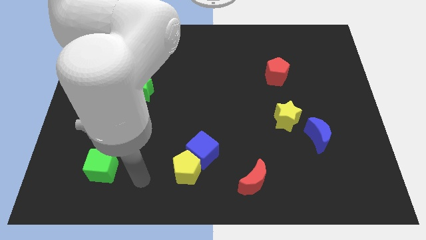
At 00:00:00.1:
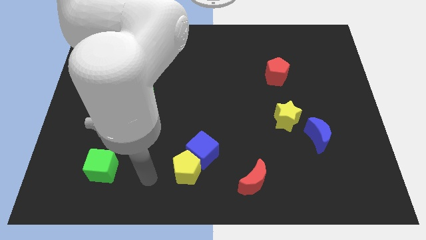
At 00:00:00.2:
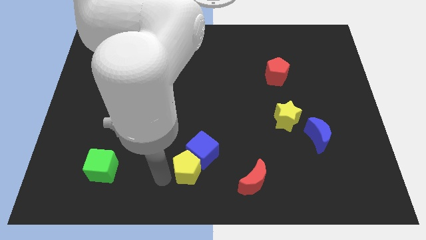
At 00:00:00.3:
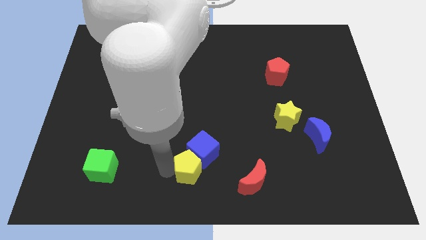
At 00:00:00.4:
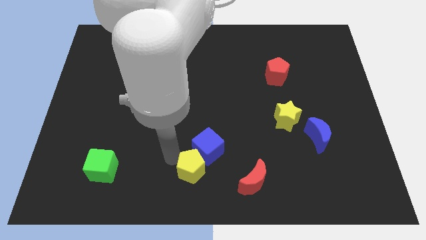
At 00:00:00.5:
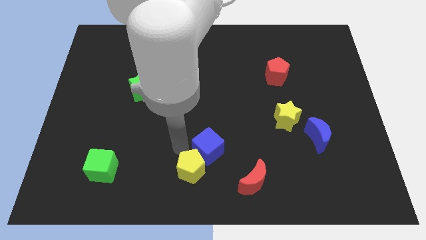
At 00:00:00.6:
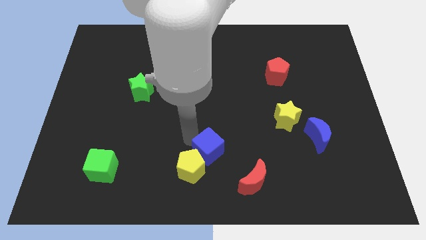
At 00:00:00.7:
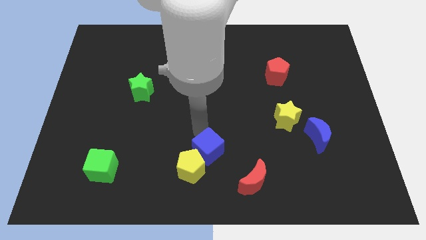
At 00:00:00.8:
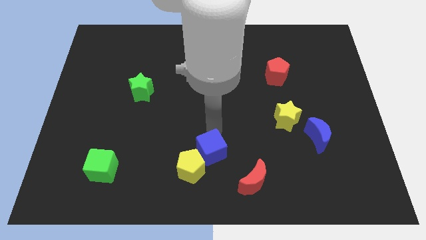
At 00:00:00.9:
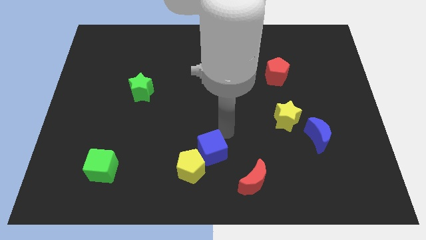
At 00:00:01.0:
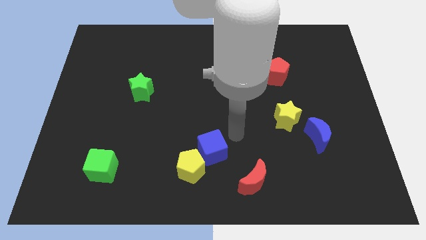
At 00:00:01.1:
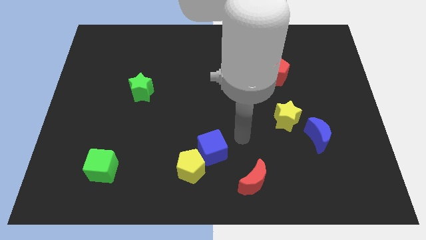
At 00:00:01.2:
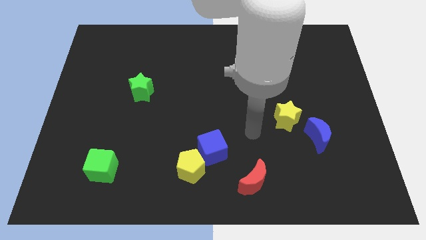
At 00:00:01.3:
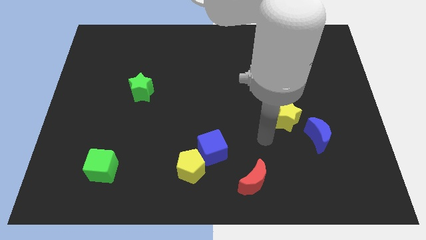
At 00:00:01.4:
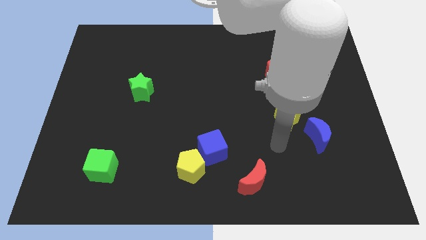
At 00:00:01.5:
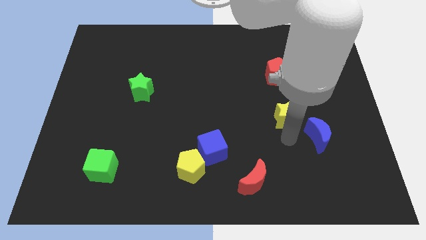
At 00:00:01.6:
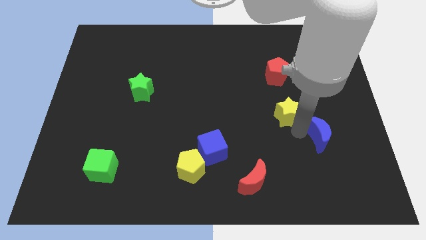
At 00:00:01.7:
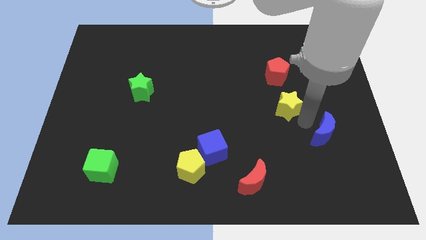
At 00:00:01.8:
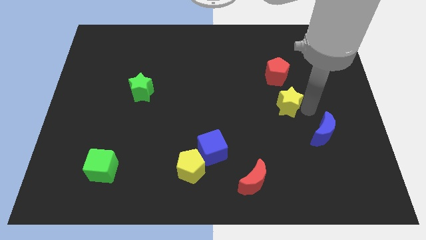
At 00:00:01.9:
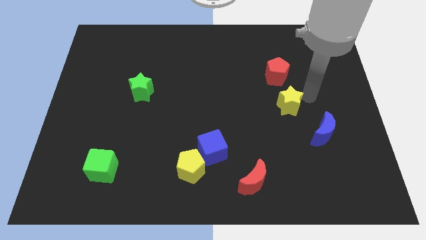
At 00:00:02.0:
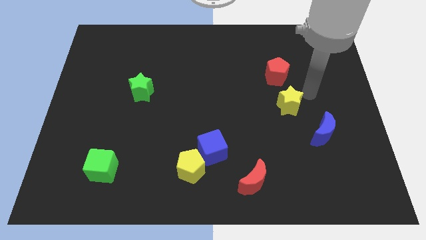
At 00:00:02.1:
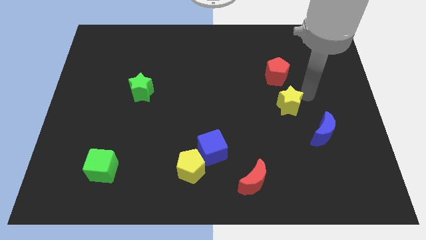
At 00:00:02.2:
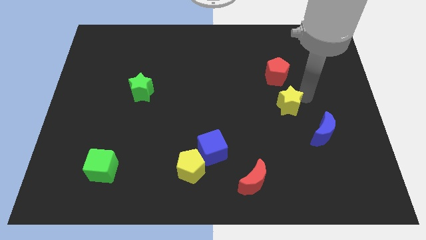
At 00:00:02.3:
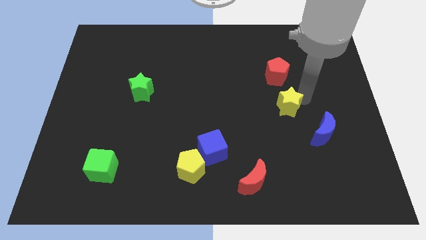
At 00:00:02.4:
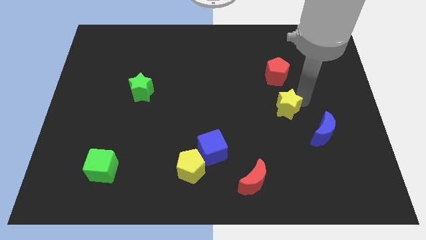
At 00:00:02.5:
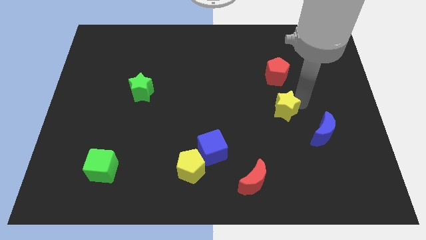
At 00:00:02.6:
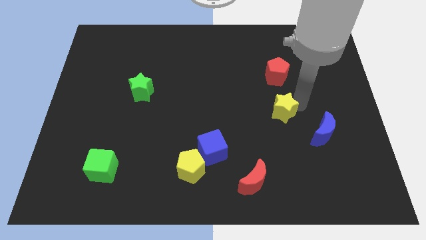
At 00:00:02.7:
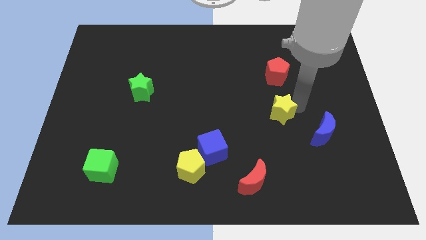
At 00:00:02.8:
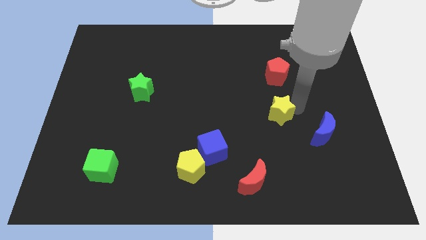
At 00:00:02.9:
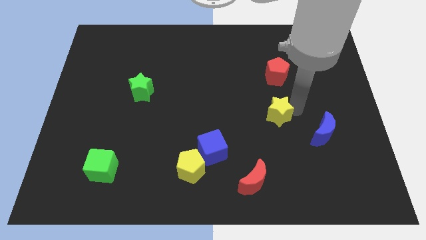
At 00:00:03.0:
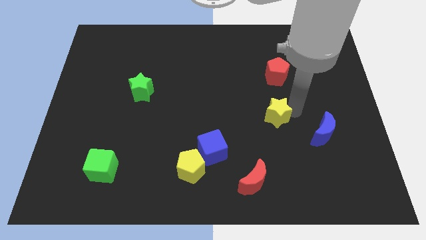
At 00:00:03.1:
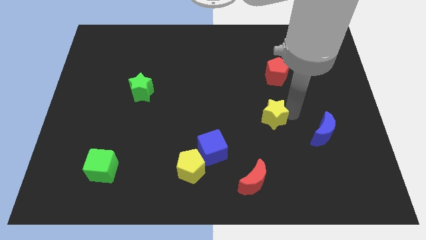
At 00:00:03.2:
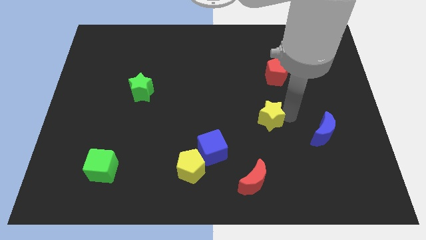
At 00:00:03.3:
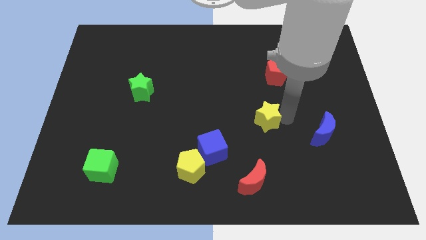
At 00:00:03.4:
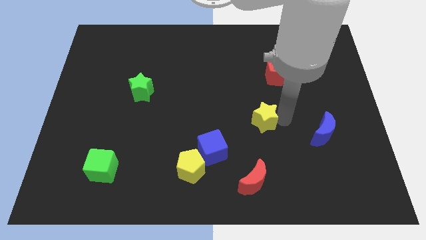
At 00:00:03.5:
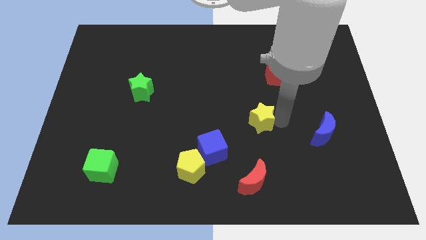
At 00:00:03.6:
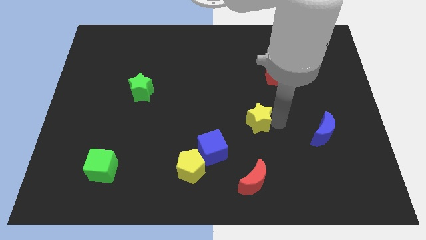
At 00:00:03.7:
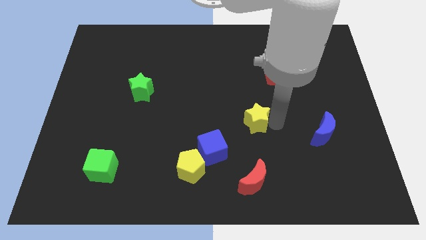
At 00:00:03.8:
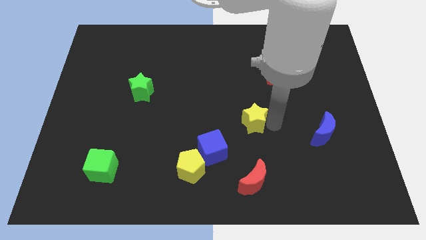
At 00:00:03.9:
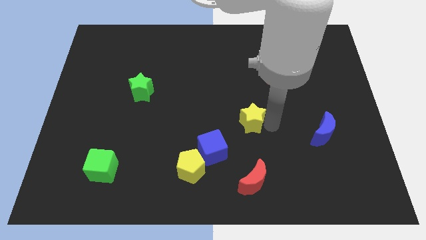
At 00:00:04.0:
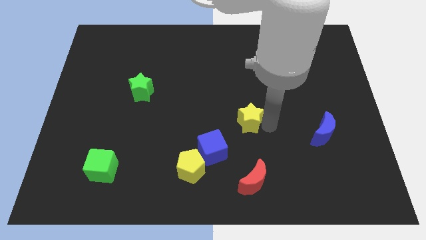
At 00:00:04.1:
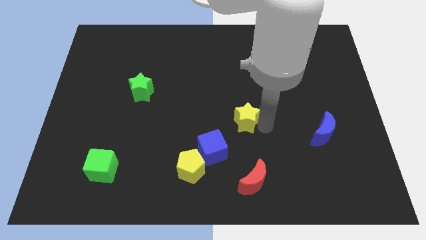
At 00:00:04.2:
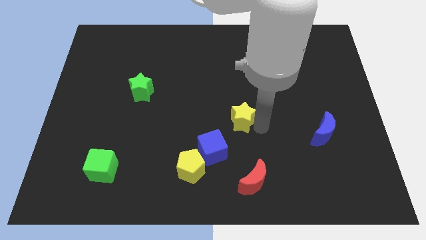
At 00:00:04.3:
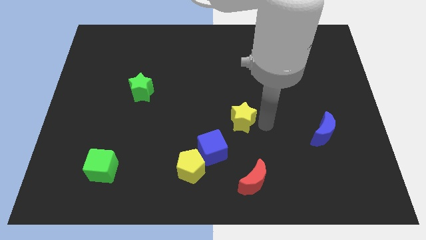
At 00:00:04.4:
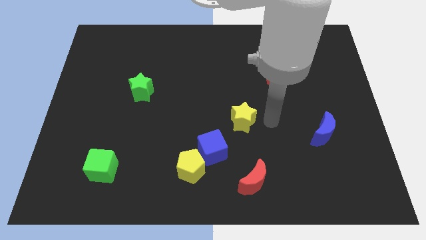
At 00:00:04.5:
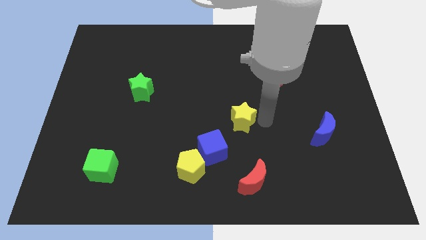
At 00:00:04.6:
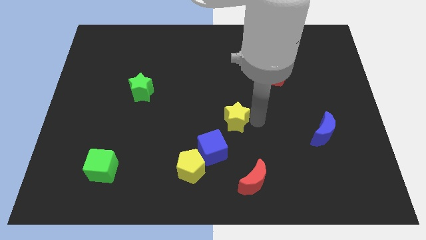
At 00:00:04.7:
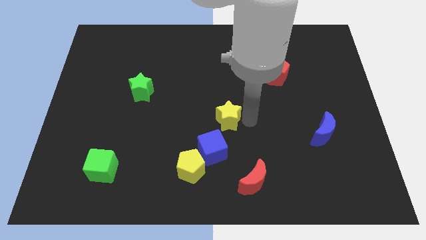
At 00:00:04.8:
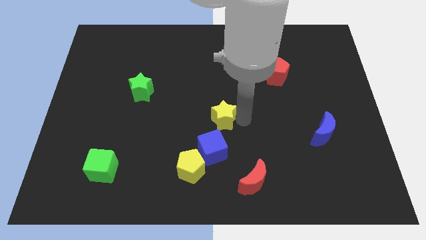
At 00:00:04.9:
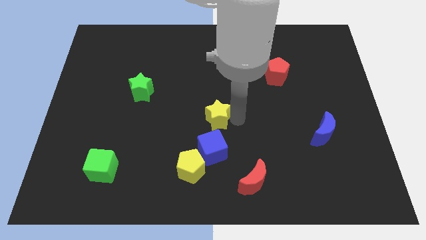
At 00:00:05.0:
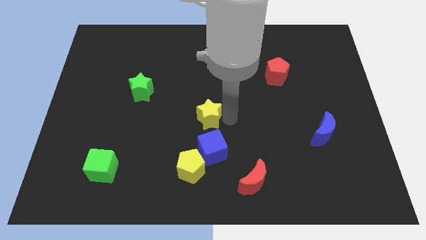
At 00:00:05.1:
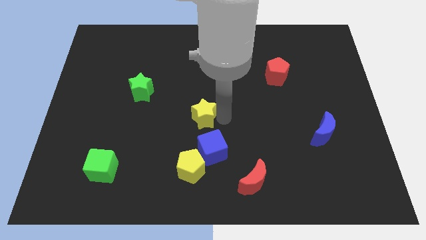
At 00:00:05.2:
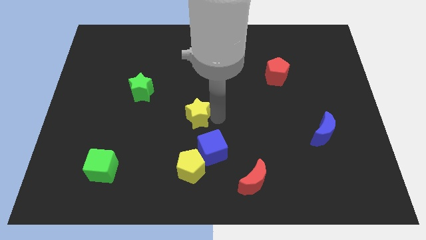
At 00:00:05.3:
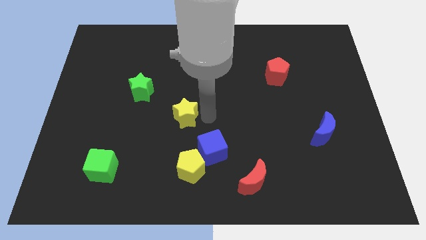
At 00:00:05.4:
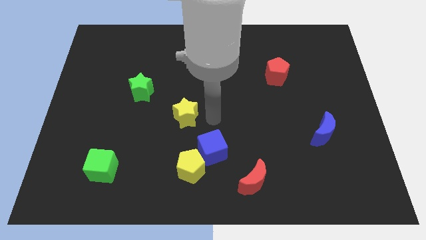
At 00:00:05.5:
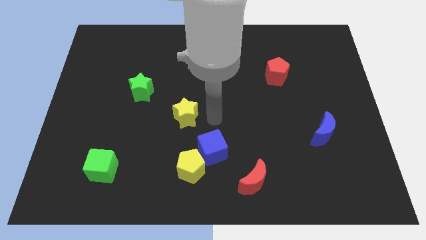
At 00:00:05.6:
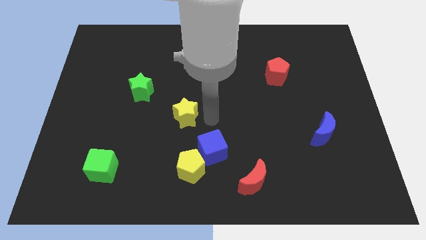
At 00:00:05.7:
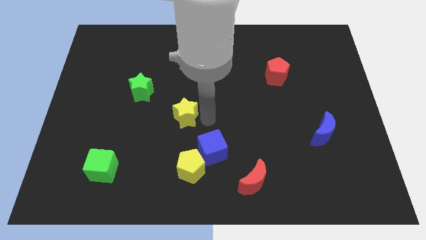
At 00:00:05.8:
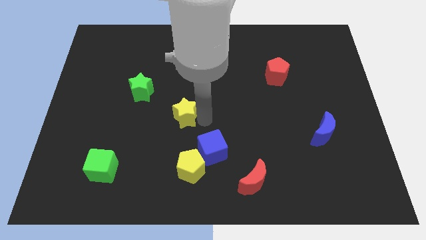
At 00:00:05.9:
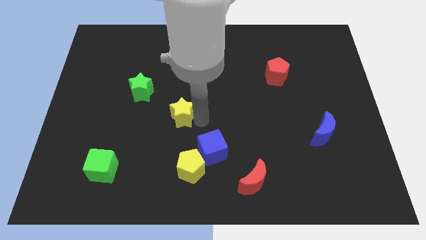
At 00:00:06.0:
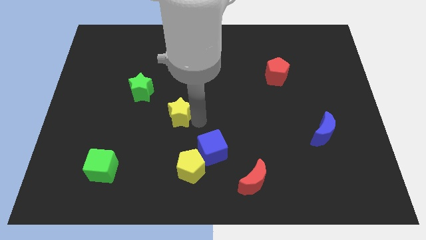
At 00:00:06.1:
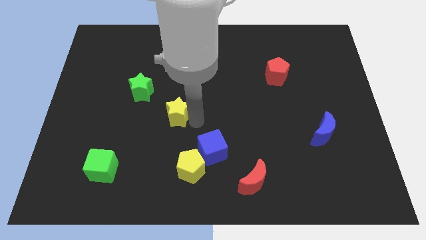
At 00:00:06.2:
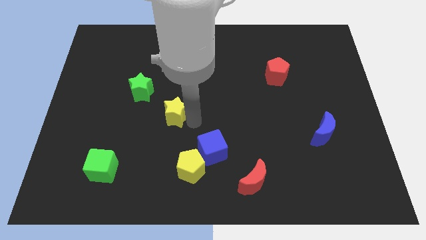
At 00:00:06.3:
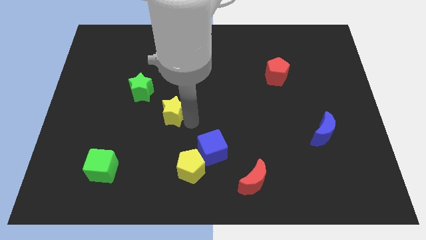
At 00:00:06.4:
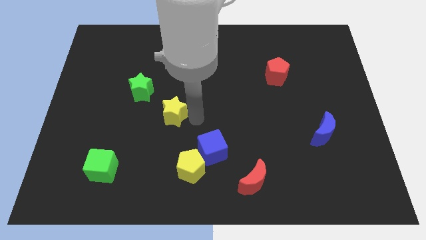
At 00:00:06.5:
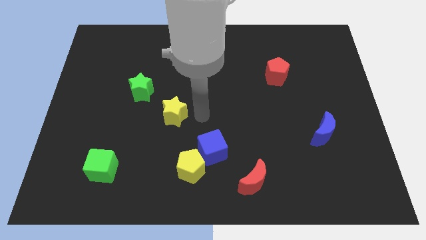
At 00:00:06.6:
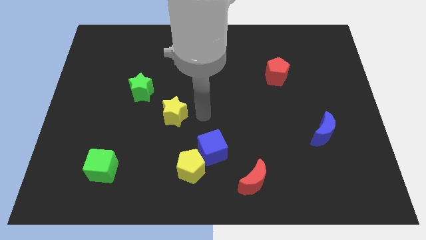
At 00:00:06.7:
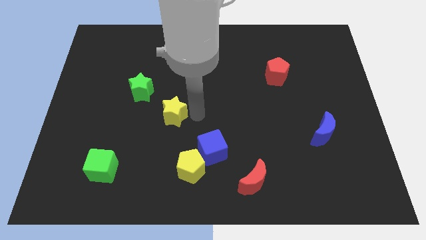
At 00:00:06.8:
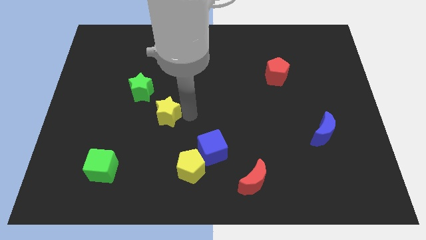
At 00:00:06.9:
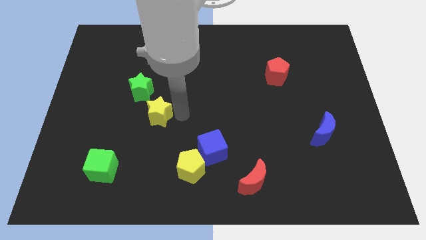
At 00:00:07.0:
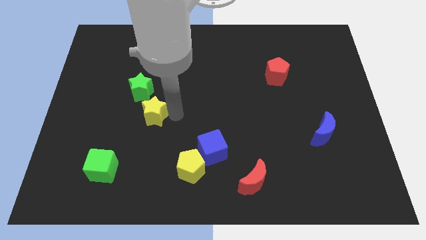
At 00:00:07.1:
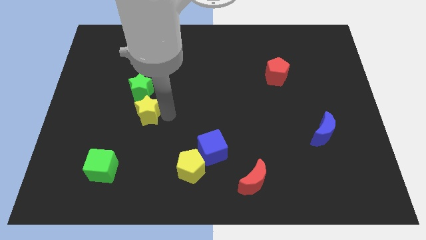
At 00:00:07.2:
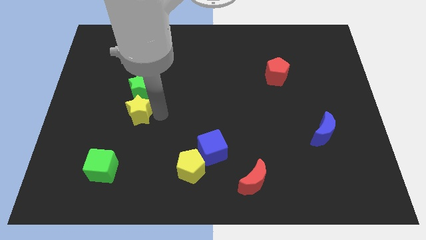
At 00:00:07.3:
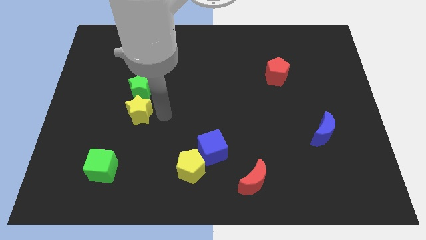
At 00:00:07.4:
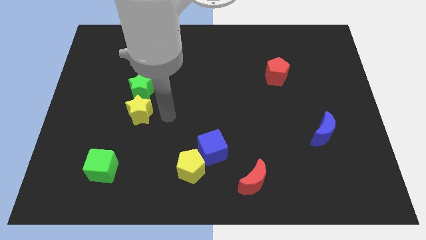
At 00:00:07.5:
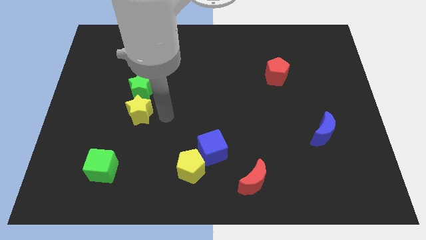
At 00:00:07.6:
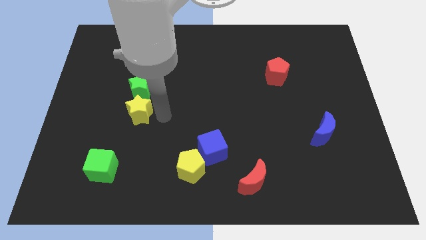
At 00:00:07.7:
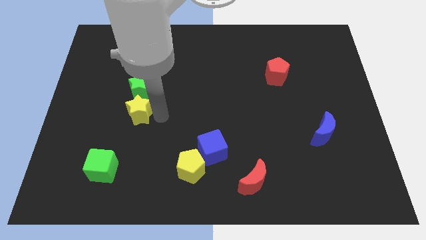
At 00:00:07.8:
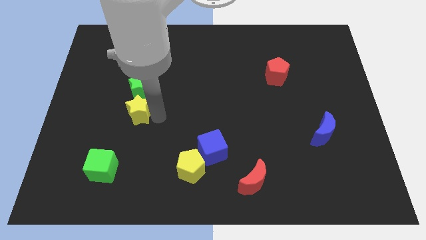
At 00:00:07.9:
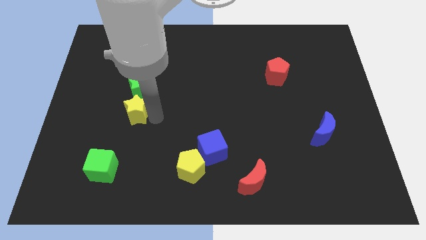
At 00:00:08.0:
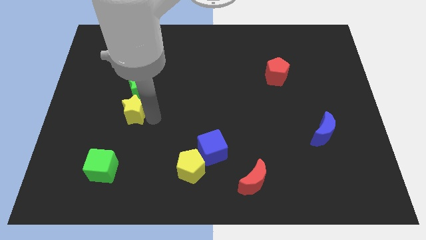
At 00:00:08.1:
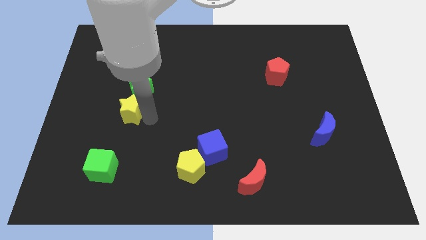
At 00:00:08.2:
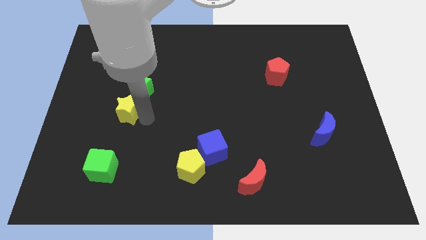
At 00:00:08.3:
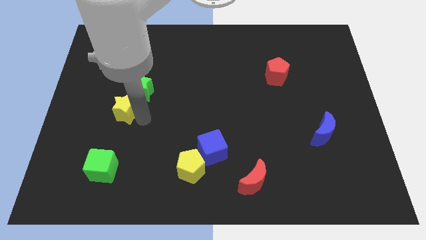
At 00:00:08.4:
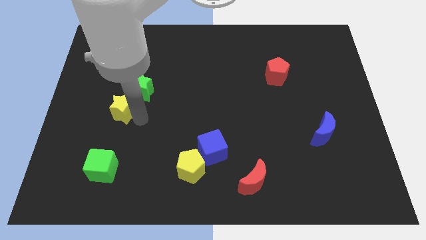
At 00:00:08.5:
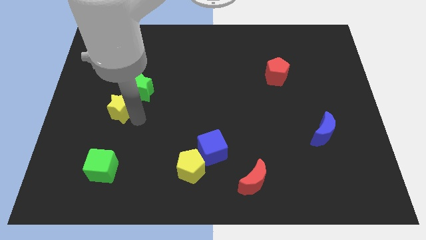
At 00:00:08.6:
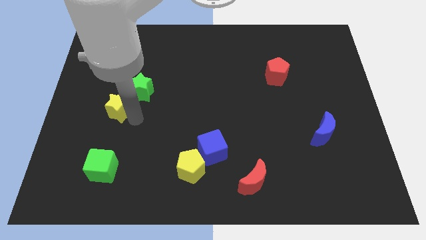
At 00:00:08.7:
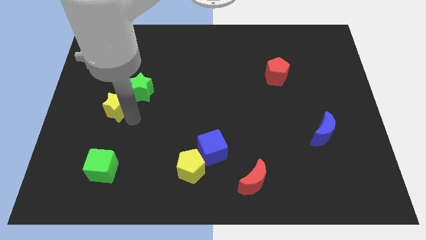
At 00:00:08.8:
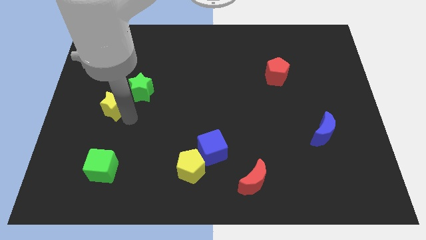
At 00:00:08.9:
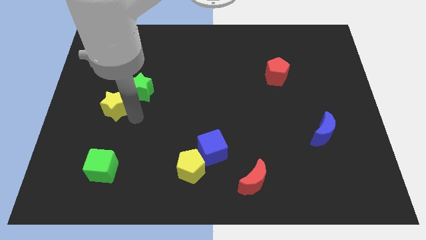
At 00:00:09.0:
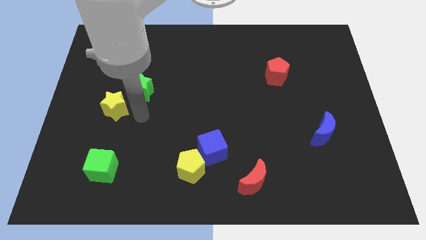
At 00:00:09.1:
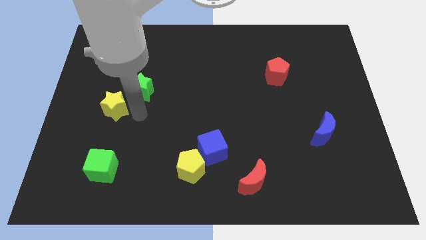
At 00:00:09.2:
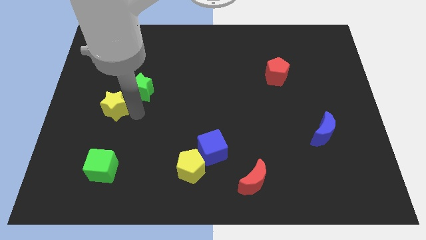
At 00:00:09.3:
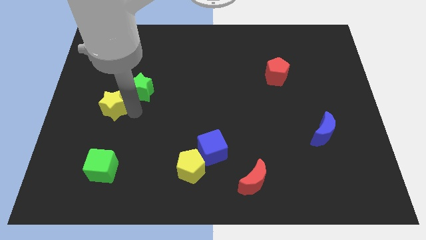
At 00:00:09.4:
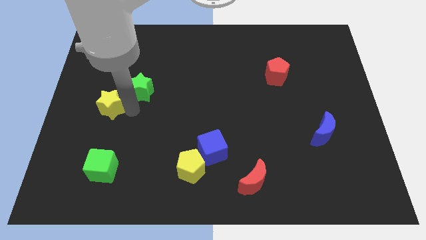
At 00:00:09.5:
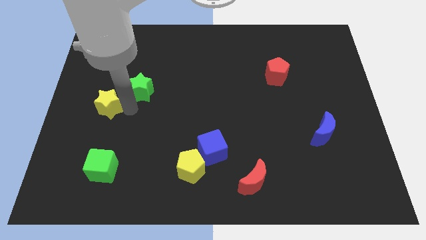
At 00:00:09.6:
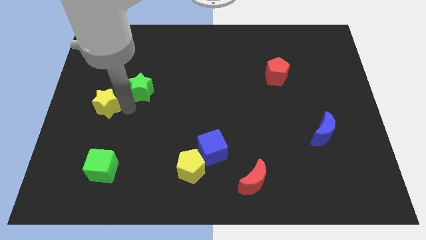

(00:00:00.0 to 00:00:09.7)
move the yellow star to the center left
